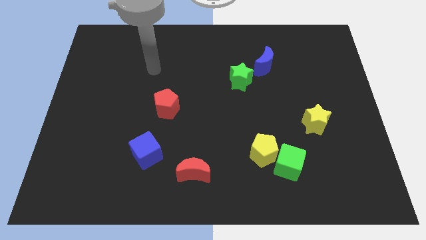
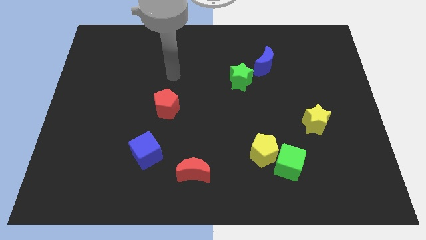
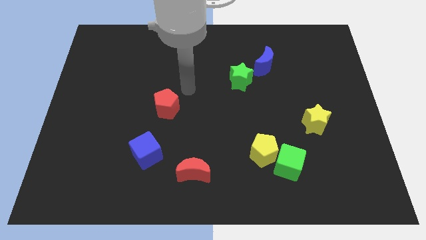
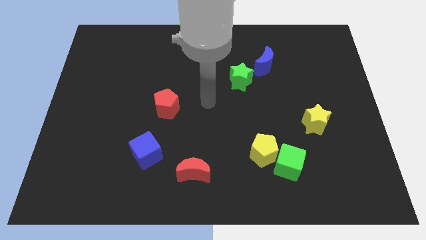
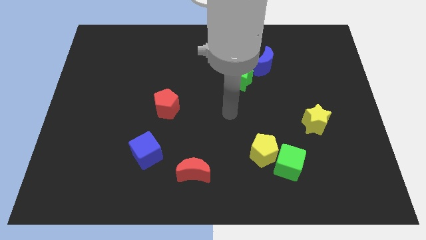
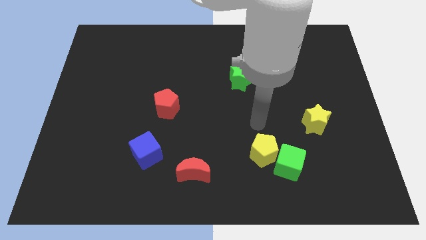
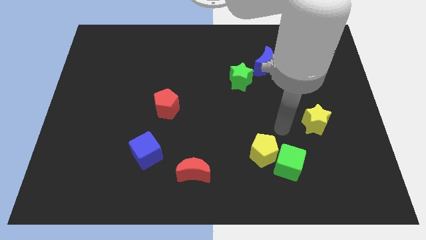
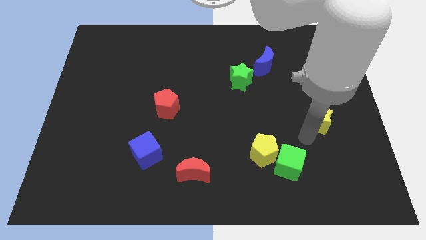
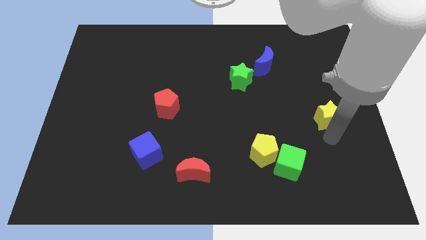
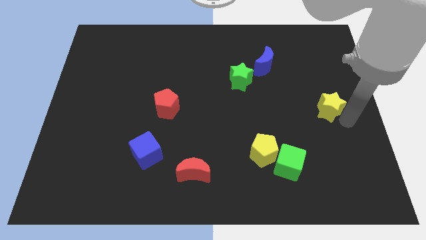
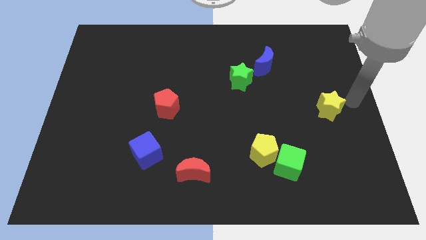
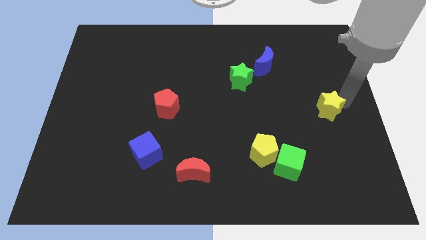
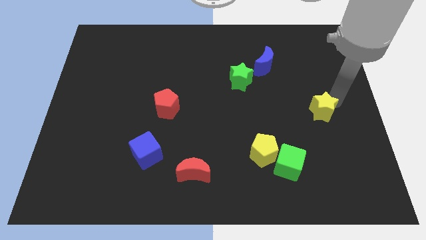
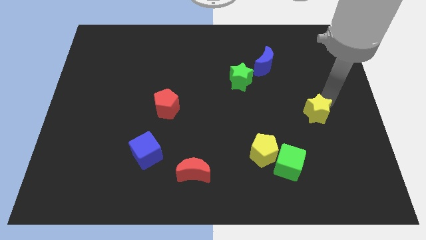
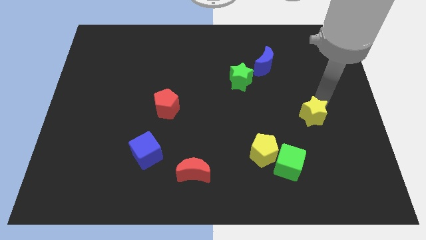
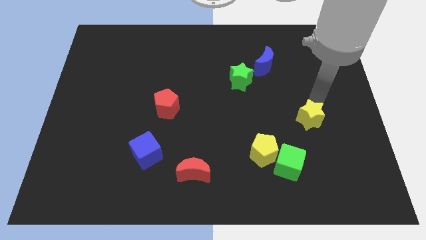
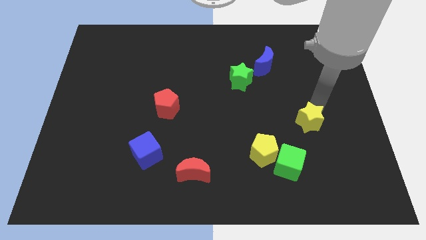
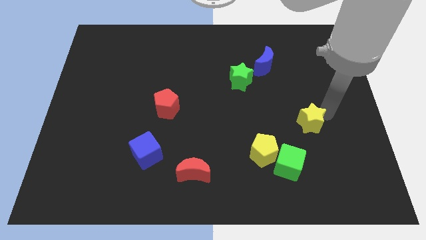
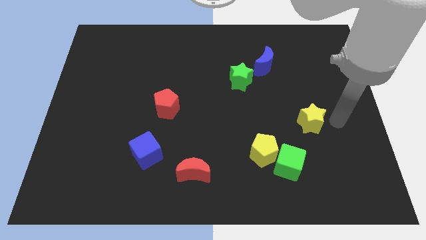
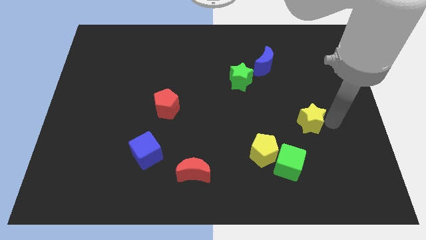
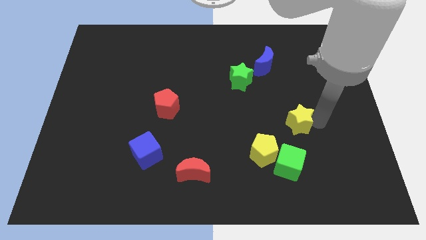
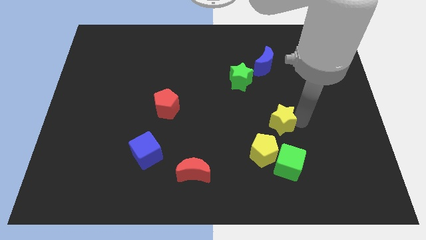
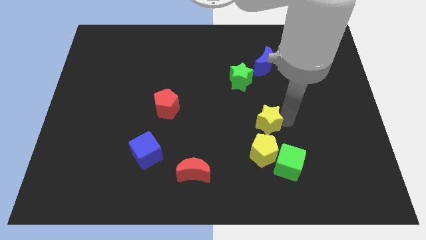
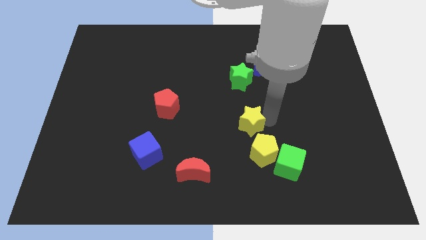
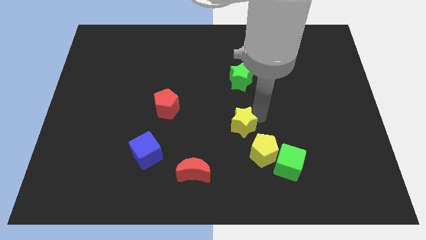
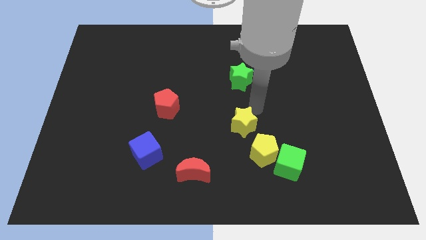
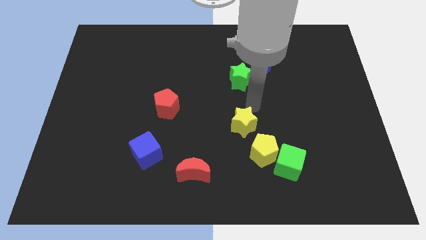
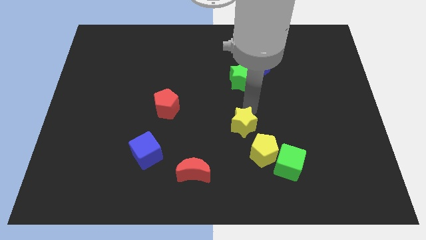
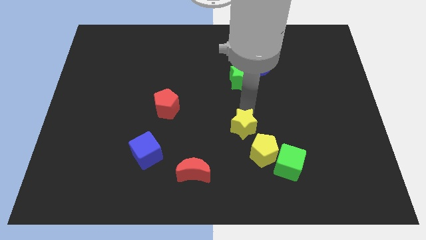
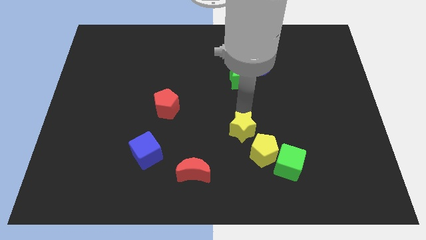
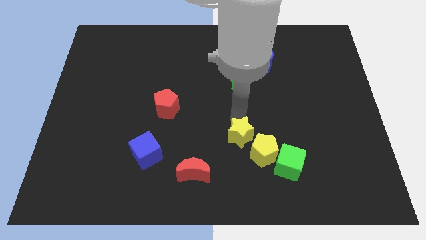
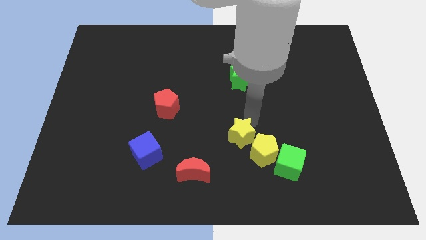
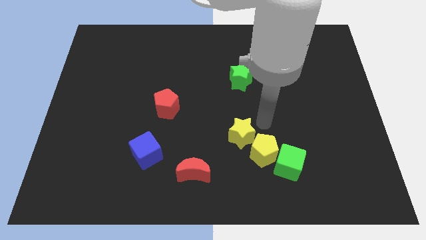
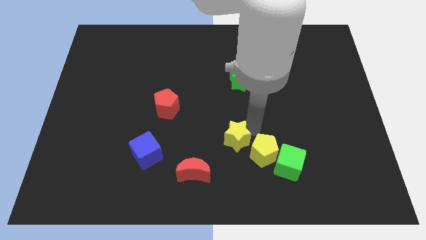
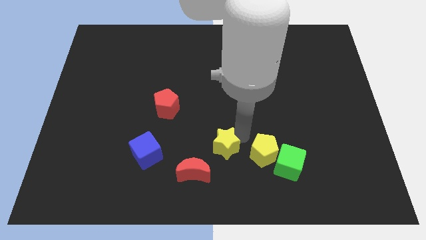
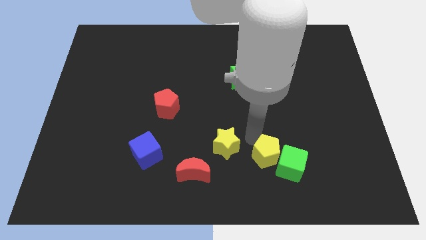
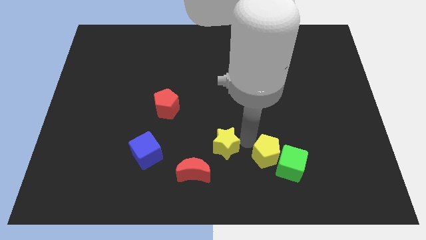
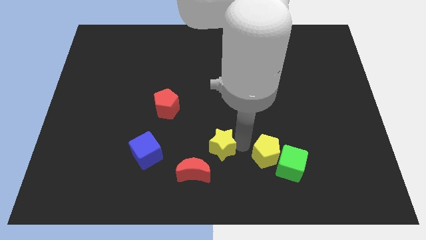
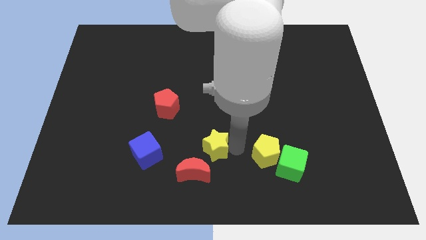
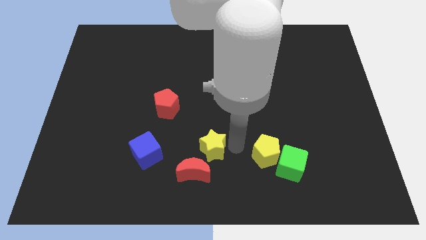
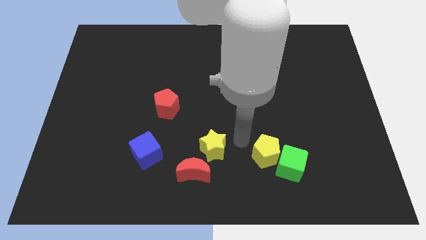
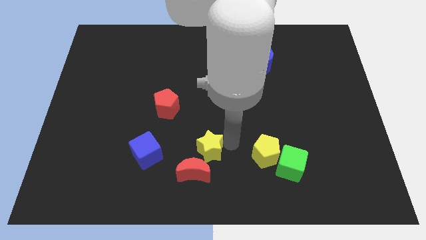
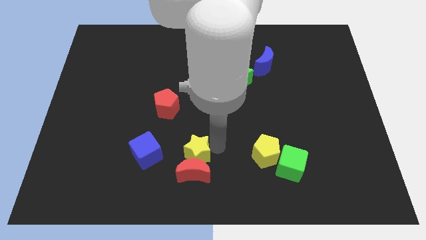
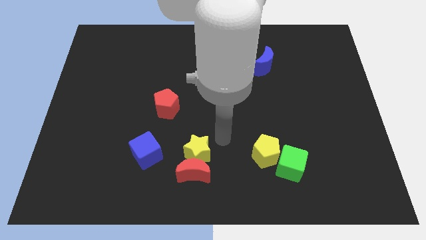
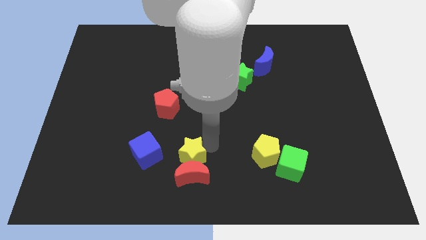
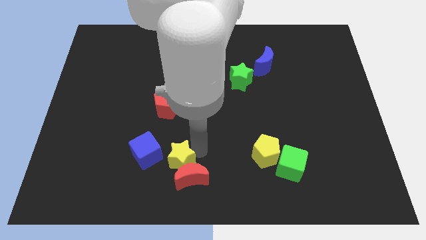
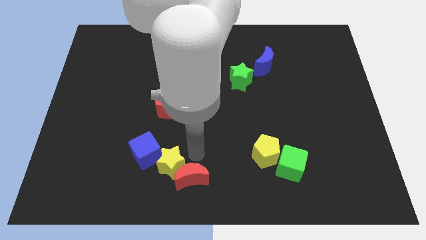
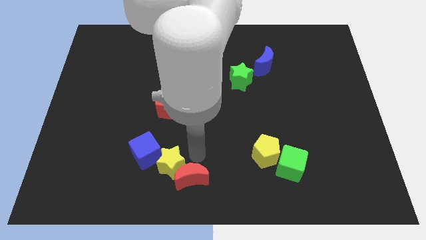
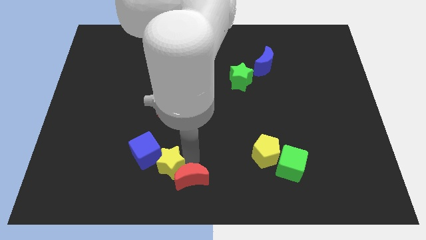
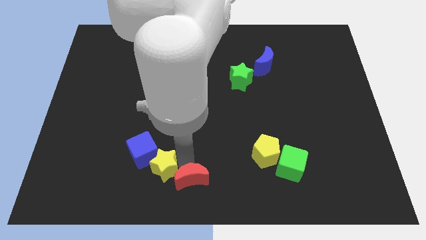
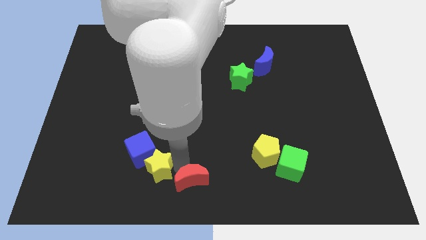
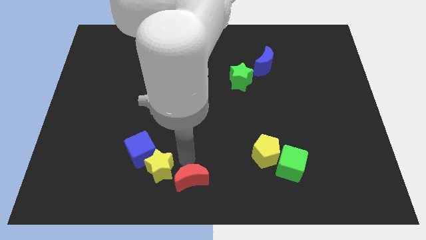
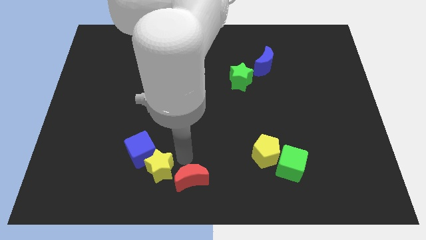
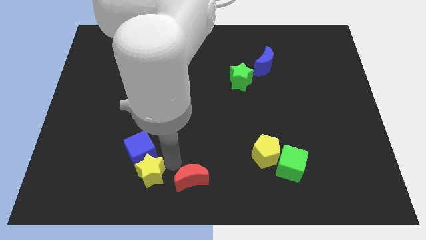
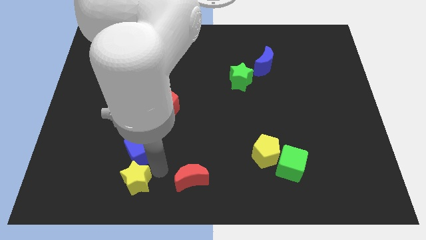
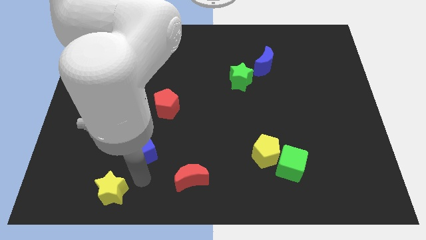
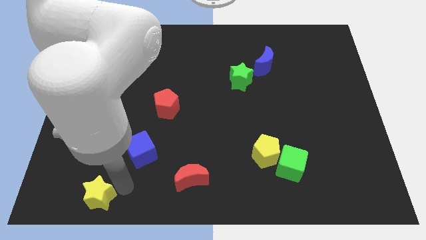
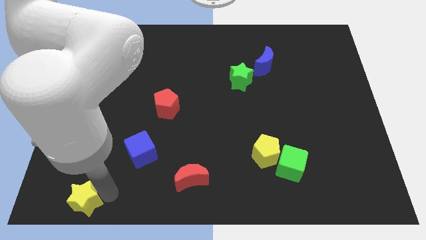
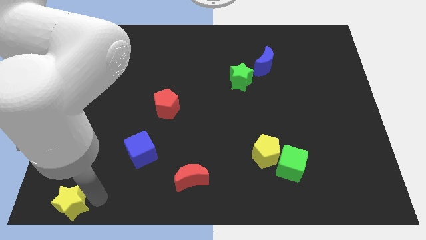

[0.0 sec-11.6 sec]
move the yellow star to the bottom left corner
